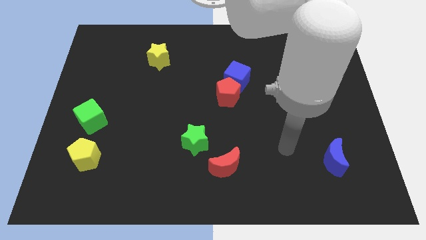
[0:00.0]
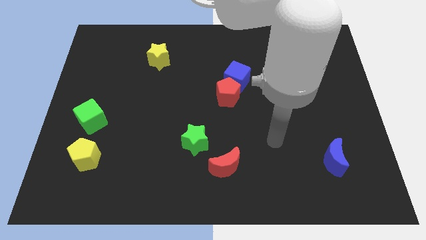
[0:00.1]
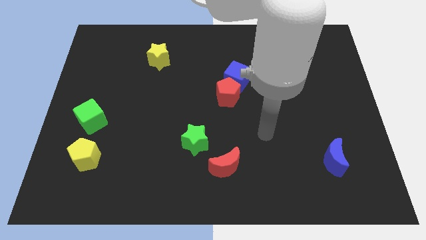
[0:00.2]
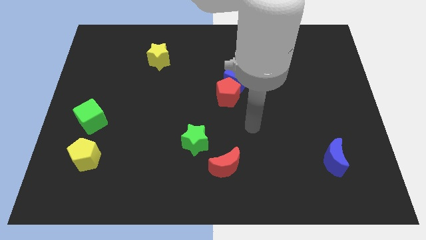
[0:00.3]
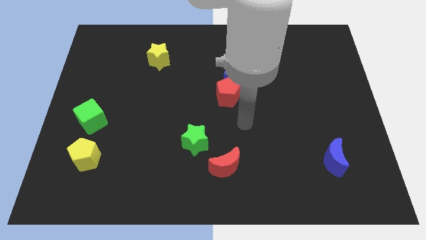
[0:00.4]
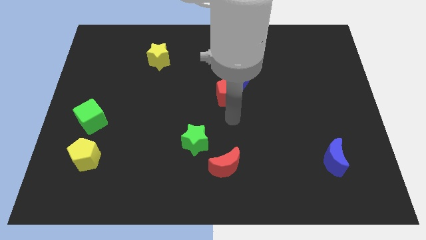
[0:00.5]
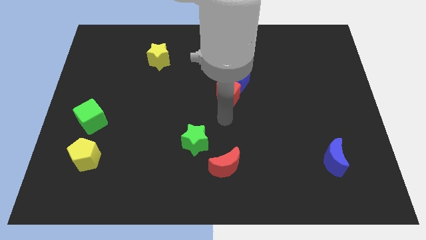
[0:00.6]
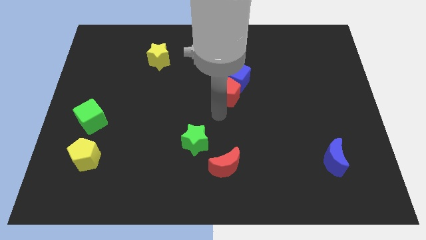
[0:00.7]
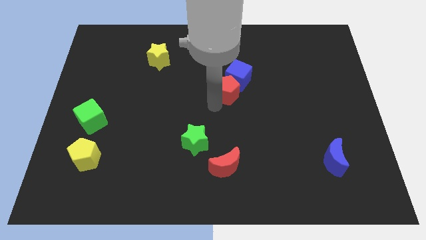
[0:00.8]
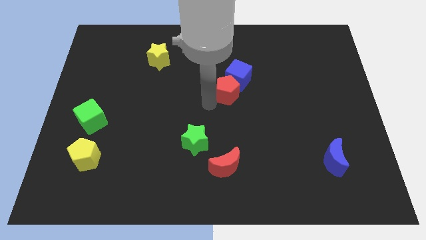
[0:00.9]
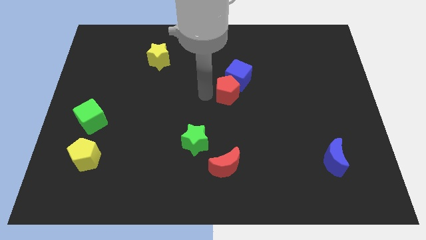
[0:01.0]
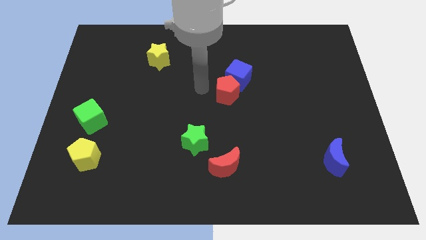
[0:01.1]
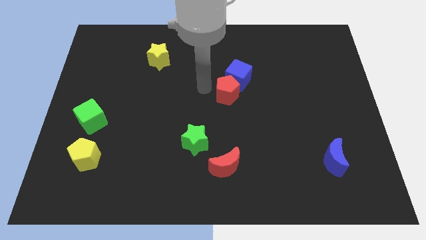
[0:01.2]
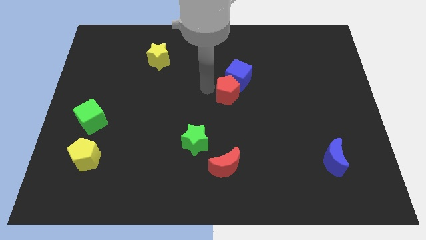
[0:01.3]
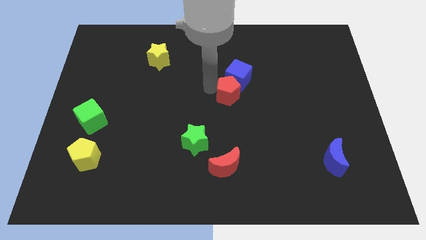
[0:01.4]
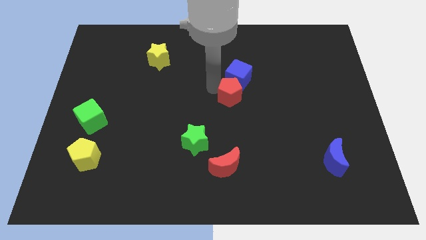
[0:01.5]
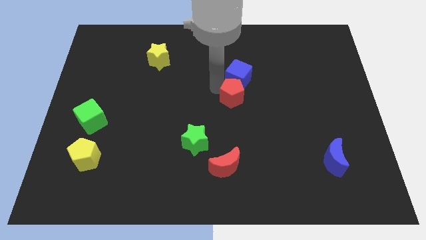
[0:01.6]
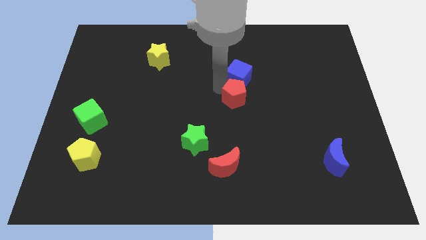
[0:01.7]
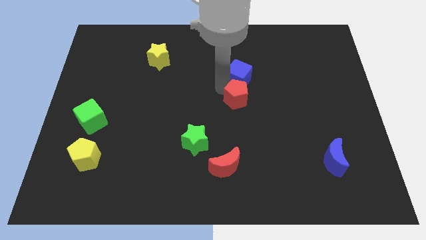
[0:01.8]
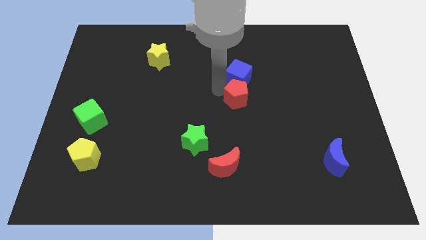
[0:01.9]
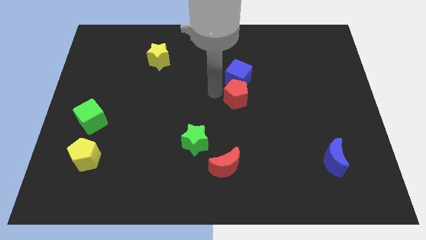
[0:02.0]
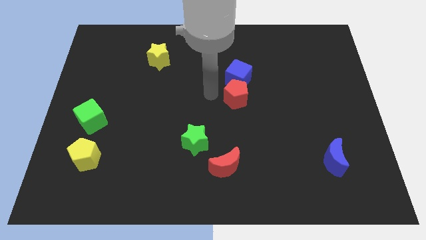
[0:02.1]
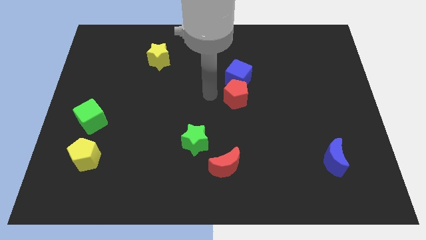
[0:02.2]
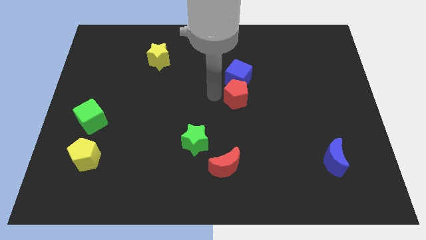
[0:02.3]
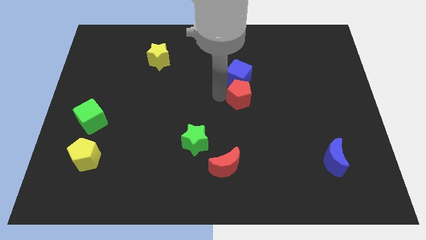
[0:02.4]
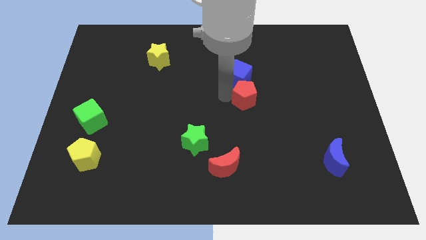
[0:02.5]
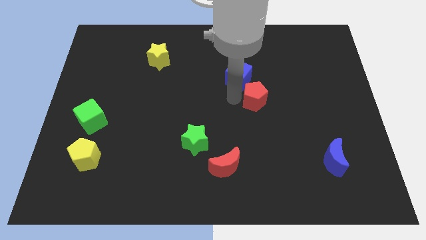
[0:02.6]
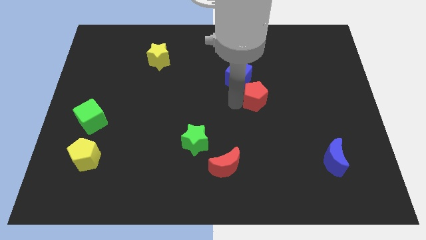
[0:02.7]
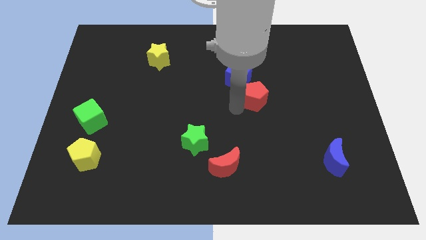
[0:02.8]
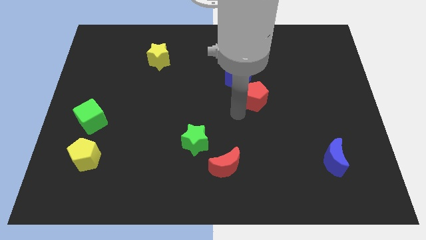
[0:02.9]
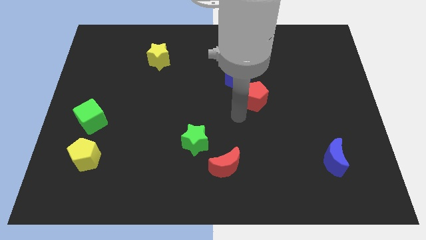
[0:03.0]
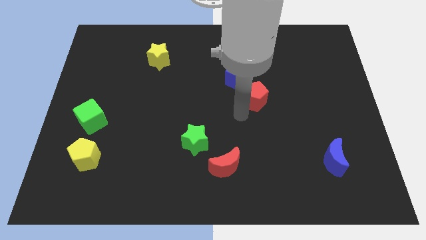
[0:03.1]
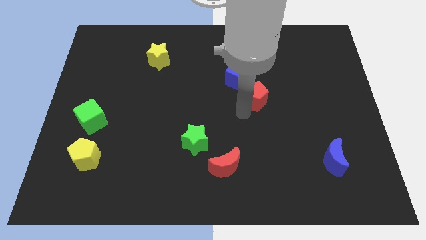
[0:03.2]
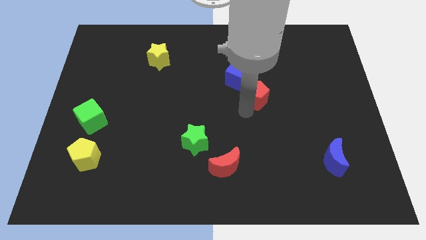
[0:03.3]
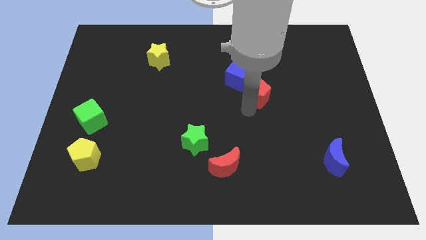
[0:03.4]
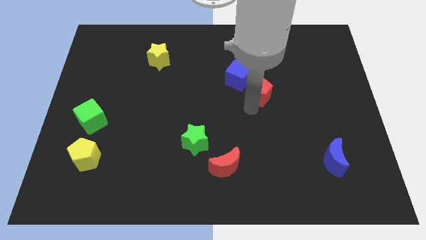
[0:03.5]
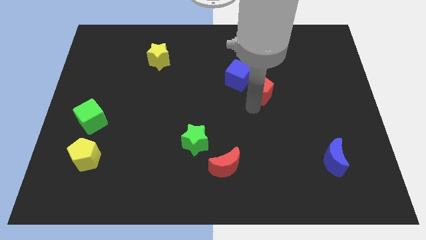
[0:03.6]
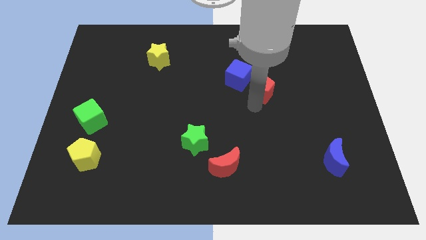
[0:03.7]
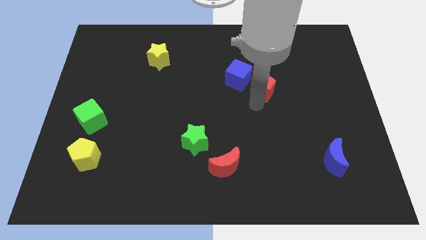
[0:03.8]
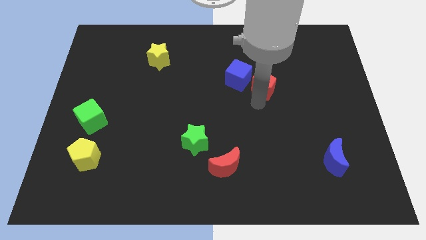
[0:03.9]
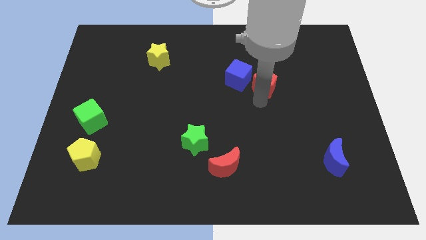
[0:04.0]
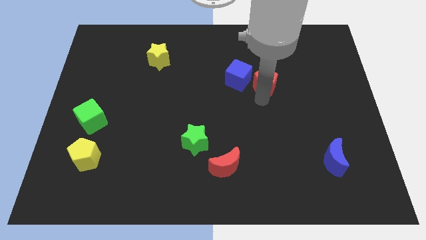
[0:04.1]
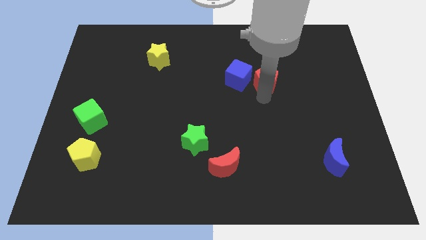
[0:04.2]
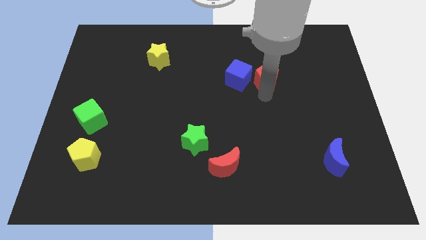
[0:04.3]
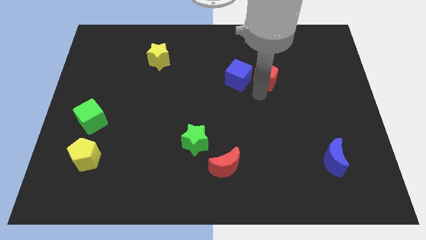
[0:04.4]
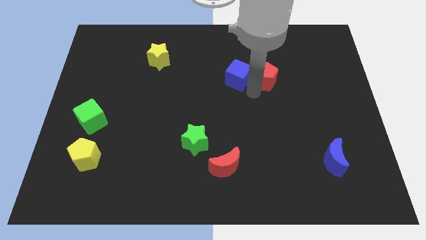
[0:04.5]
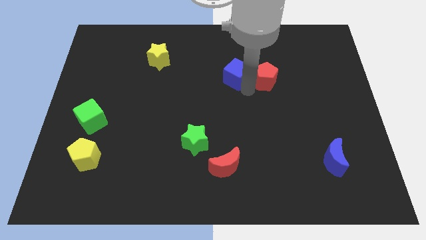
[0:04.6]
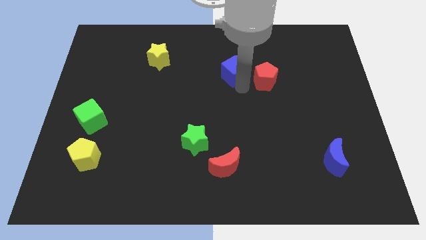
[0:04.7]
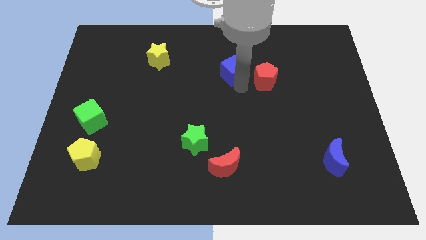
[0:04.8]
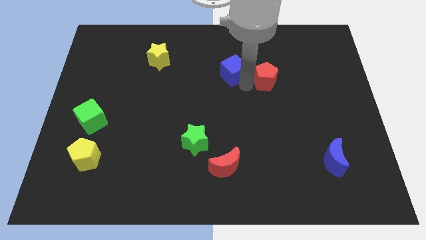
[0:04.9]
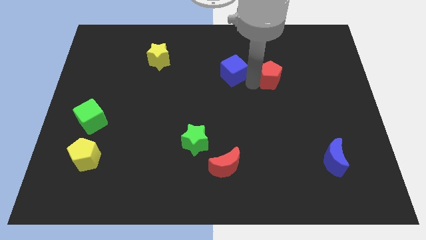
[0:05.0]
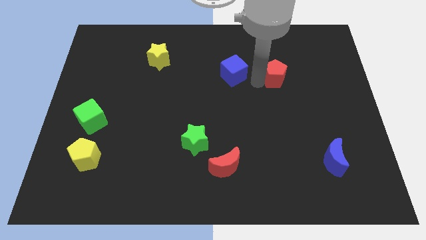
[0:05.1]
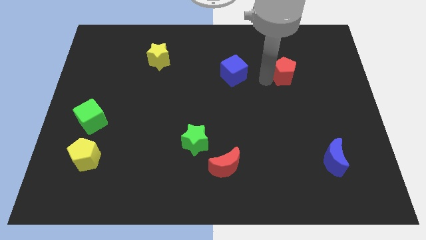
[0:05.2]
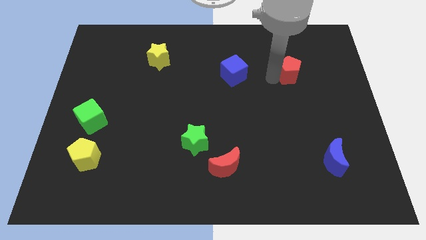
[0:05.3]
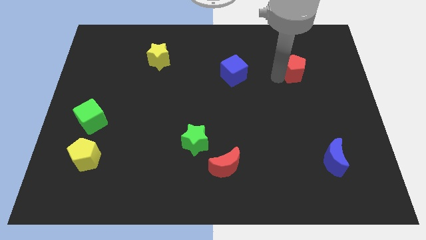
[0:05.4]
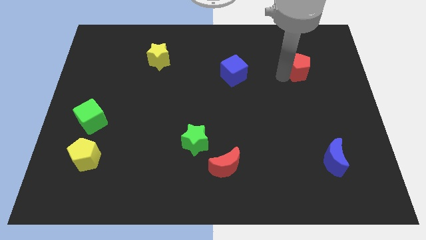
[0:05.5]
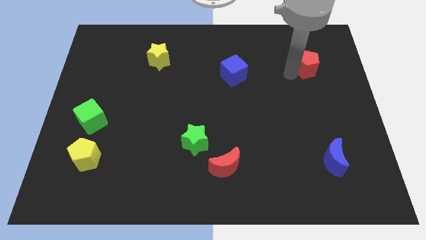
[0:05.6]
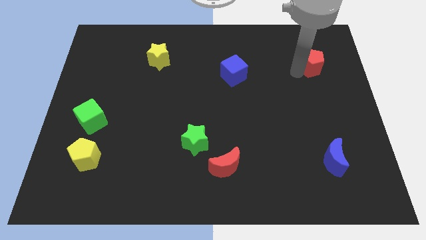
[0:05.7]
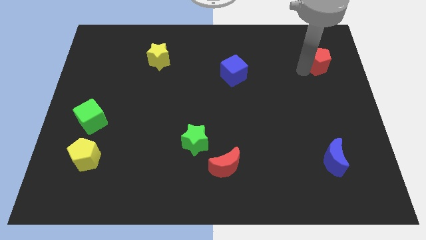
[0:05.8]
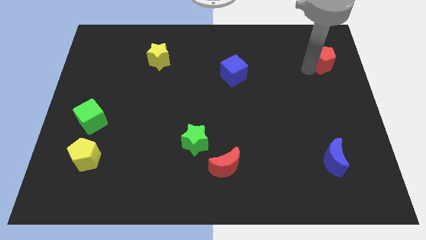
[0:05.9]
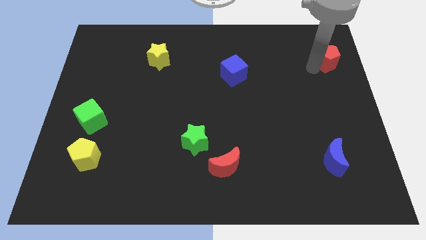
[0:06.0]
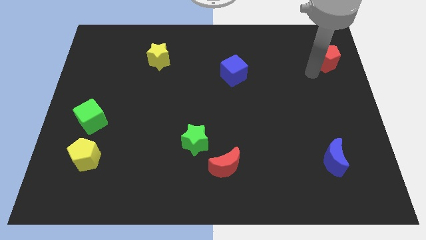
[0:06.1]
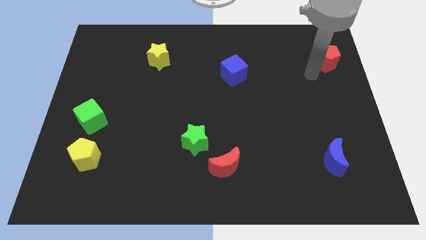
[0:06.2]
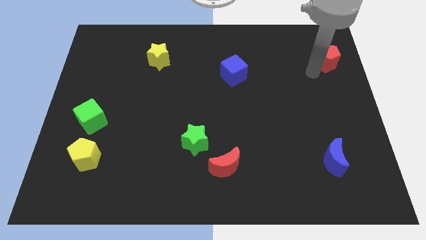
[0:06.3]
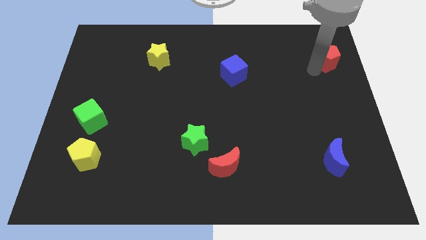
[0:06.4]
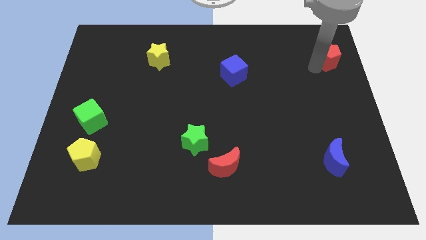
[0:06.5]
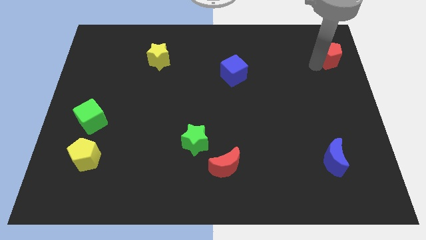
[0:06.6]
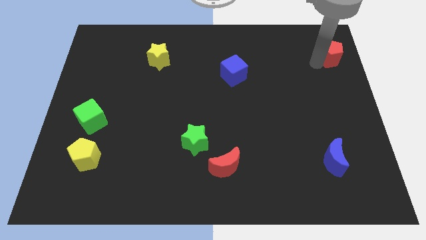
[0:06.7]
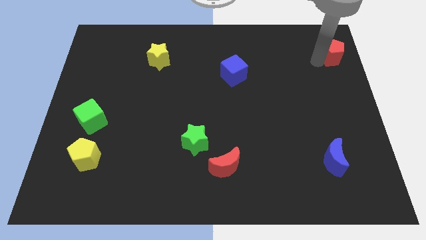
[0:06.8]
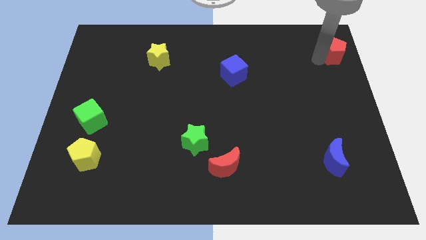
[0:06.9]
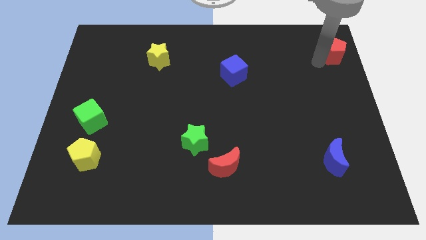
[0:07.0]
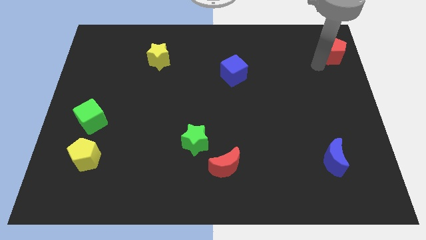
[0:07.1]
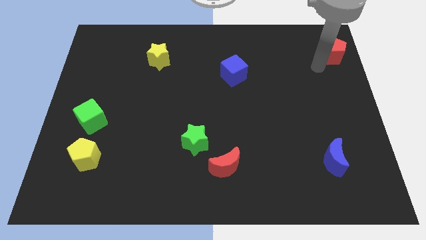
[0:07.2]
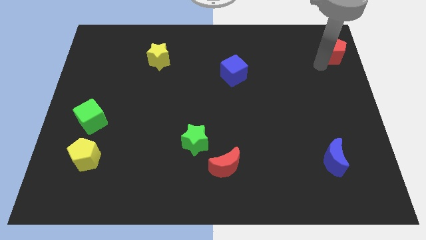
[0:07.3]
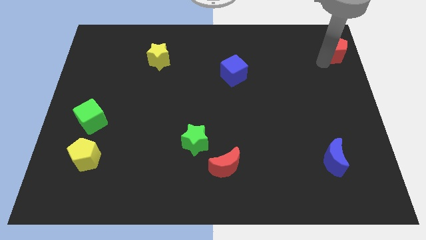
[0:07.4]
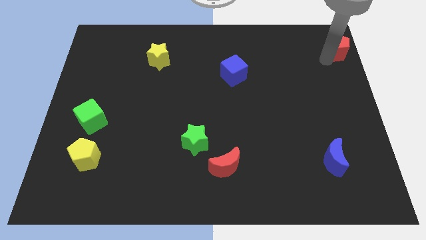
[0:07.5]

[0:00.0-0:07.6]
push the red pentagon to the top right of the board
